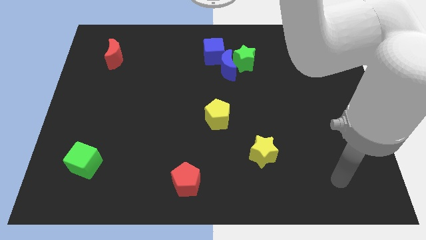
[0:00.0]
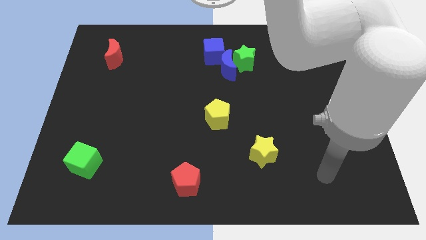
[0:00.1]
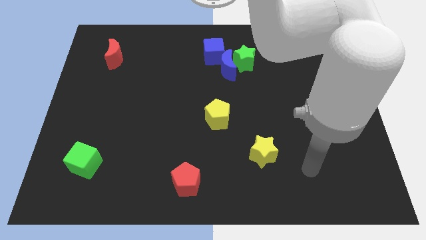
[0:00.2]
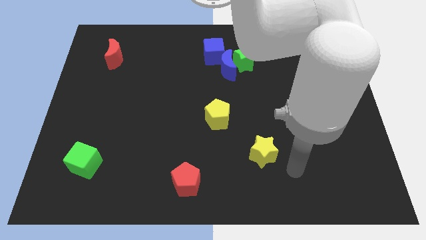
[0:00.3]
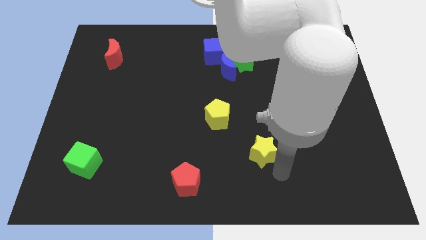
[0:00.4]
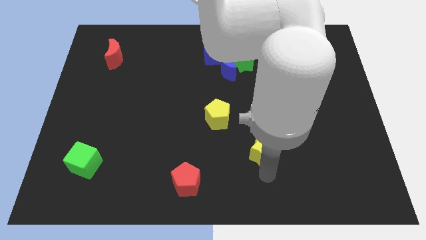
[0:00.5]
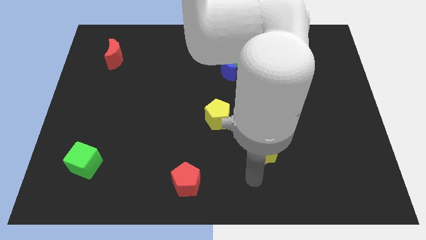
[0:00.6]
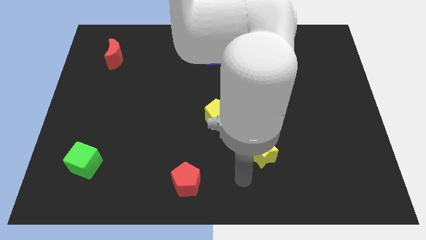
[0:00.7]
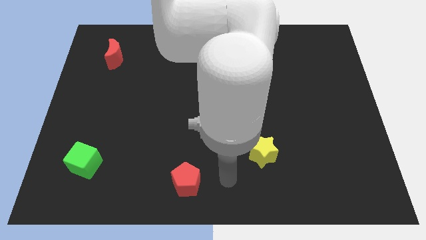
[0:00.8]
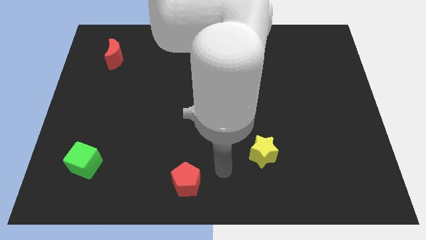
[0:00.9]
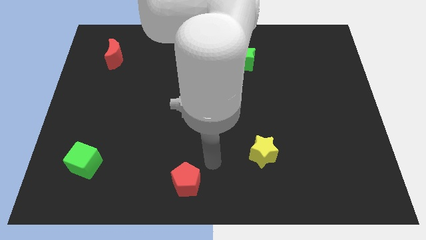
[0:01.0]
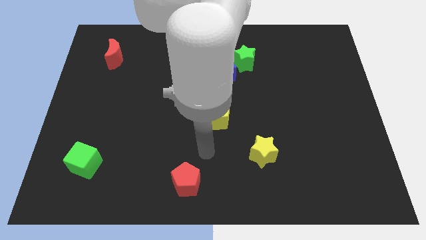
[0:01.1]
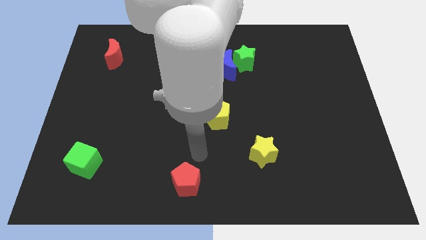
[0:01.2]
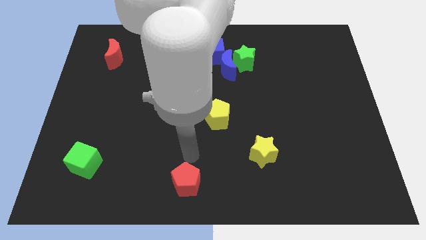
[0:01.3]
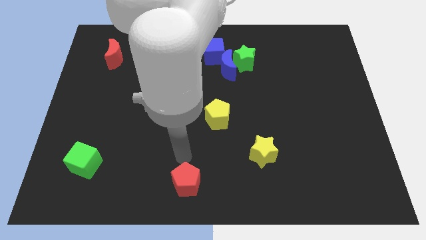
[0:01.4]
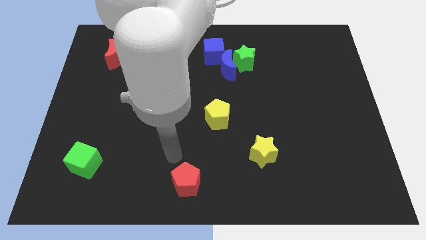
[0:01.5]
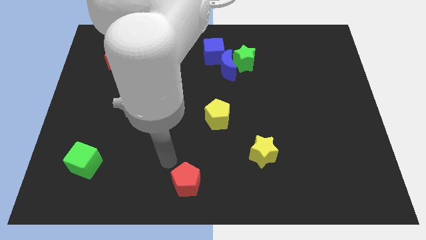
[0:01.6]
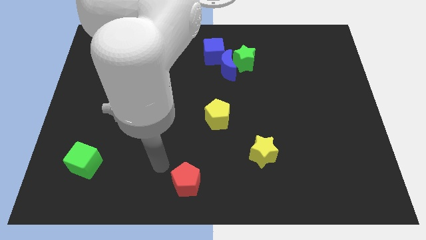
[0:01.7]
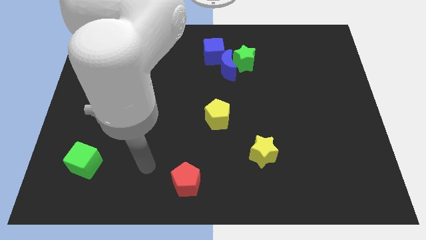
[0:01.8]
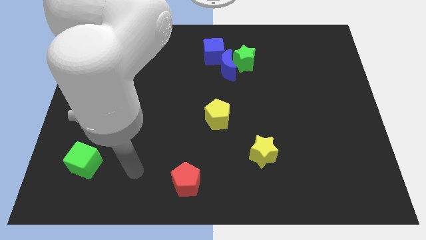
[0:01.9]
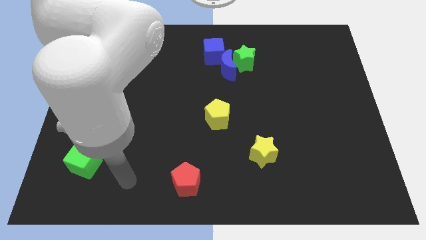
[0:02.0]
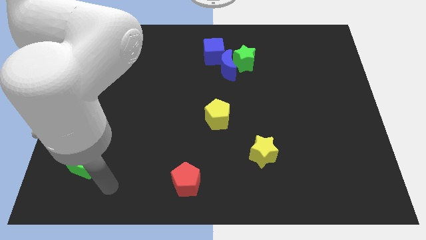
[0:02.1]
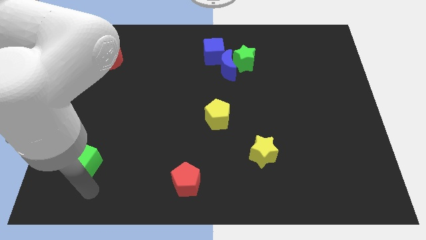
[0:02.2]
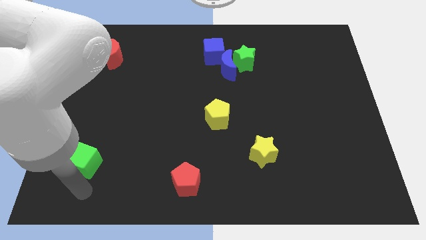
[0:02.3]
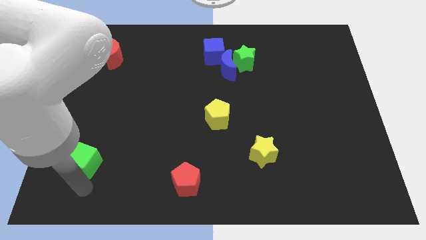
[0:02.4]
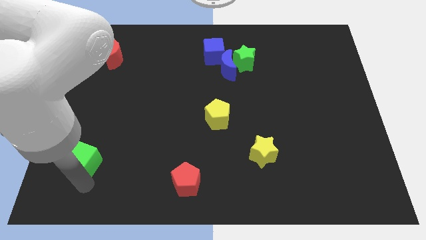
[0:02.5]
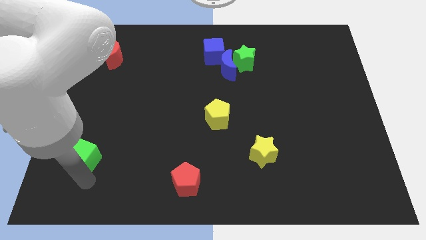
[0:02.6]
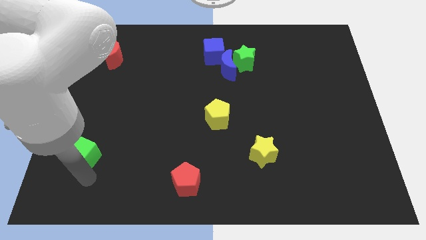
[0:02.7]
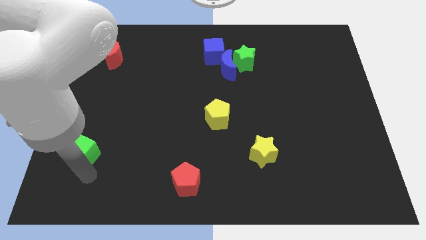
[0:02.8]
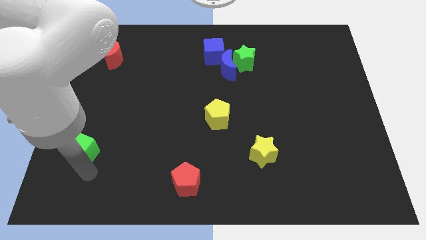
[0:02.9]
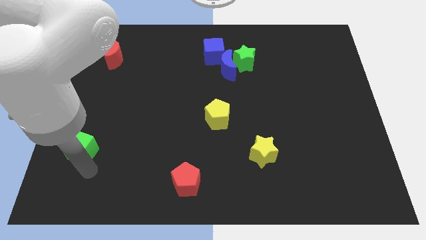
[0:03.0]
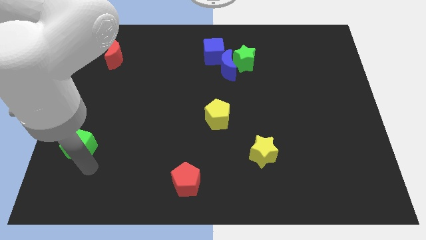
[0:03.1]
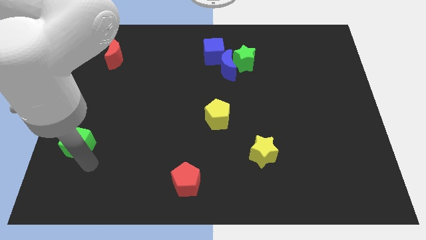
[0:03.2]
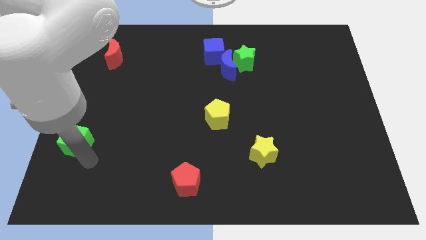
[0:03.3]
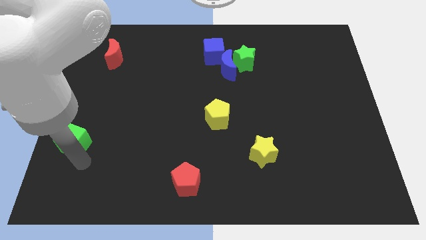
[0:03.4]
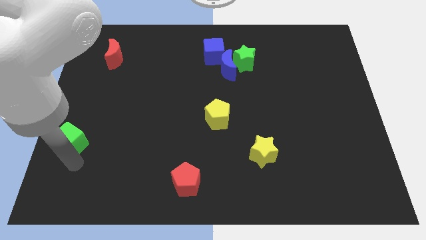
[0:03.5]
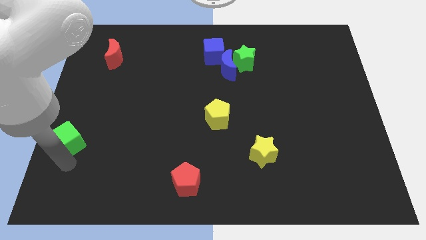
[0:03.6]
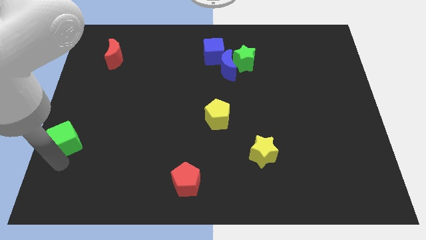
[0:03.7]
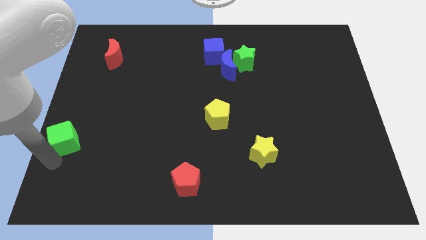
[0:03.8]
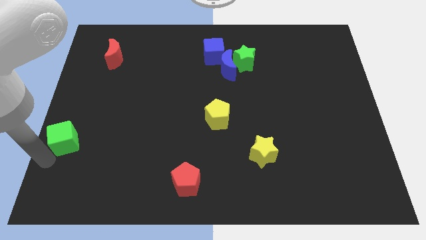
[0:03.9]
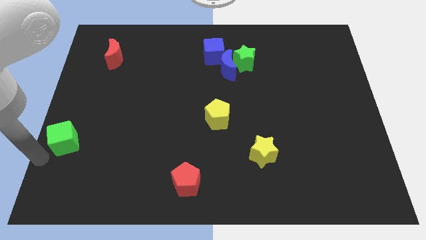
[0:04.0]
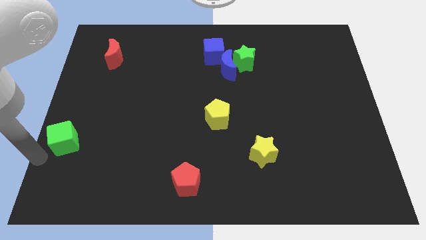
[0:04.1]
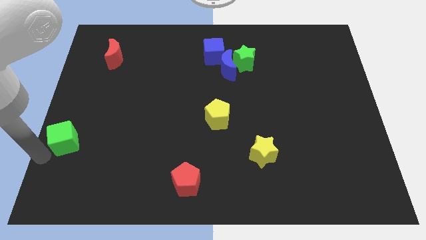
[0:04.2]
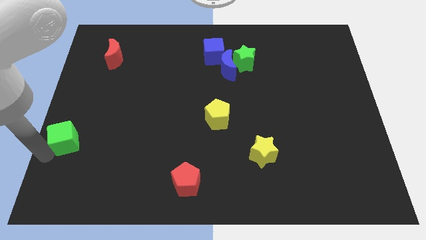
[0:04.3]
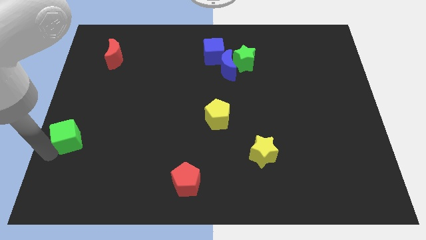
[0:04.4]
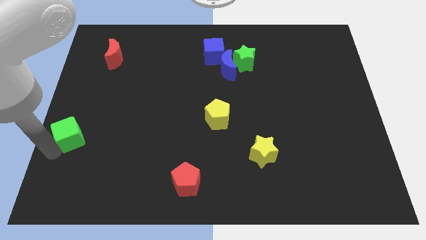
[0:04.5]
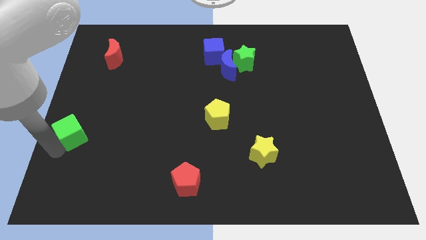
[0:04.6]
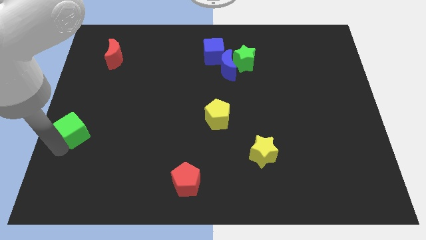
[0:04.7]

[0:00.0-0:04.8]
push the green cube a bit upwards

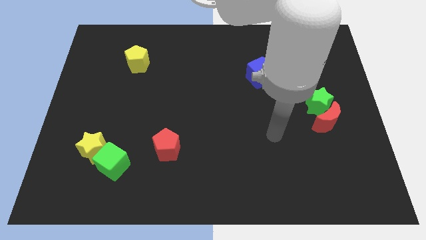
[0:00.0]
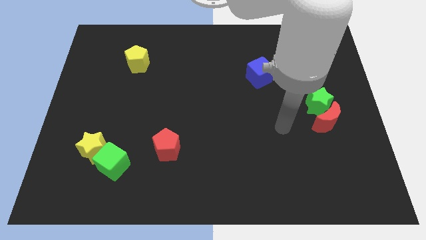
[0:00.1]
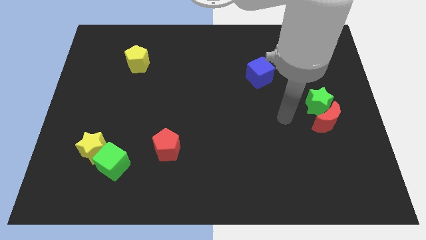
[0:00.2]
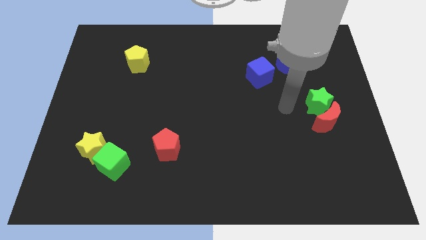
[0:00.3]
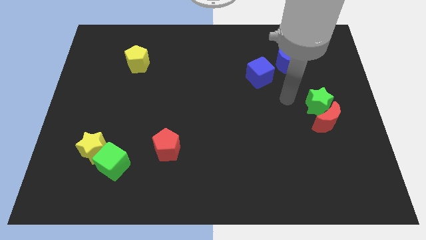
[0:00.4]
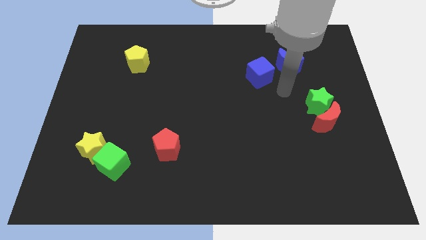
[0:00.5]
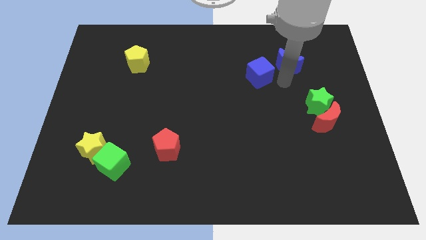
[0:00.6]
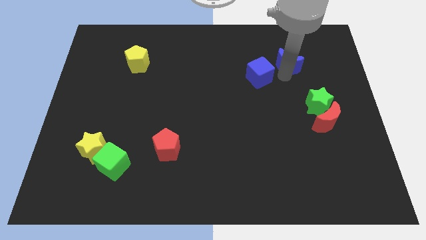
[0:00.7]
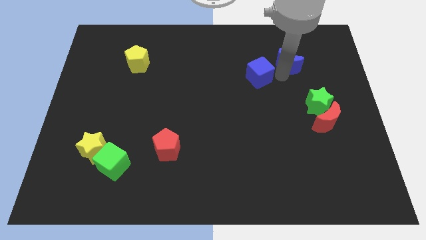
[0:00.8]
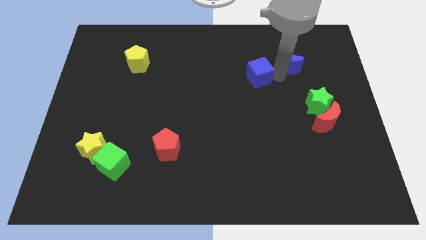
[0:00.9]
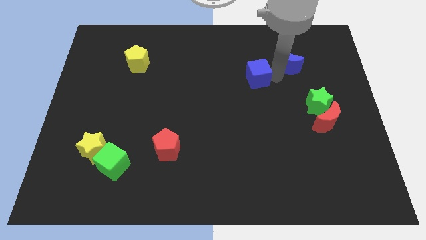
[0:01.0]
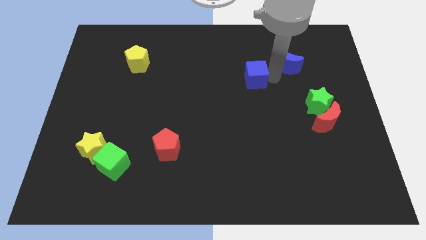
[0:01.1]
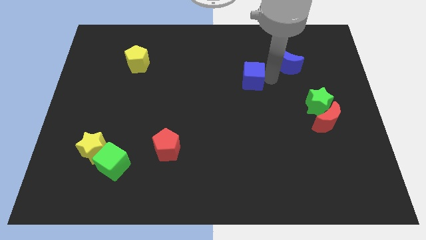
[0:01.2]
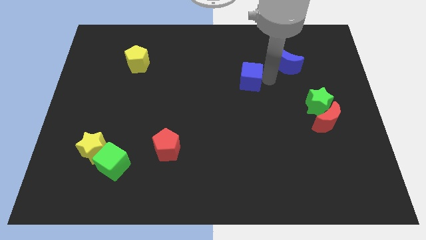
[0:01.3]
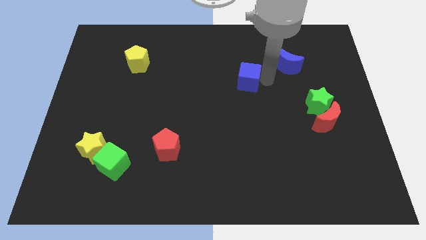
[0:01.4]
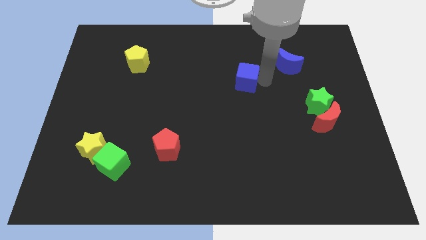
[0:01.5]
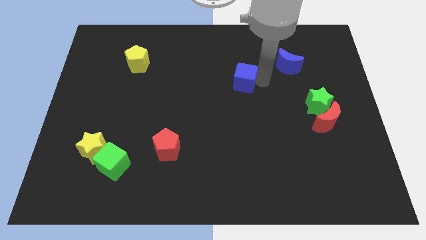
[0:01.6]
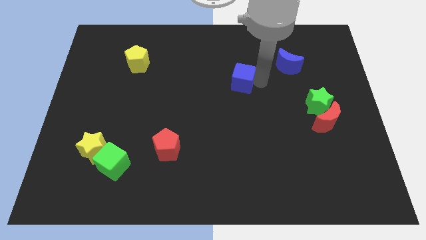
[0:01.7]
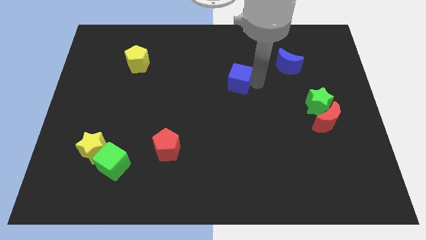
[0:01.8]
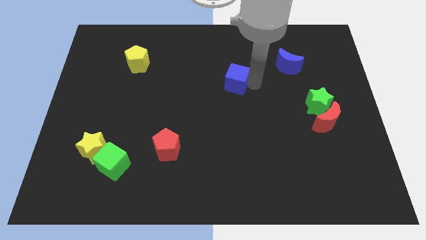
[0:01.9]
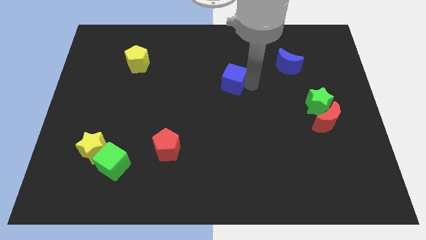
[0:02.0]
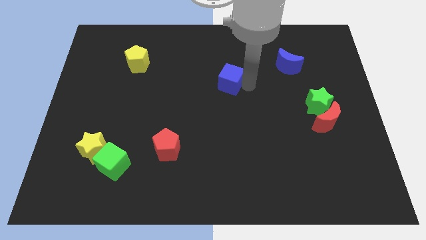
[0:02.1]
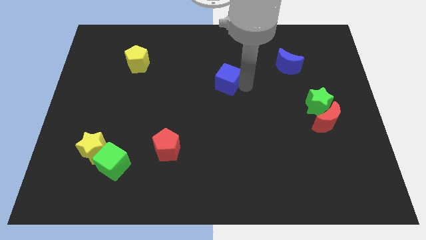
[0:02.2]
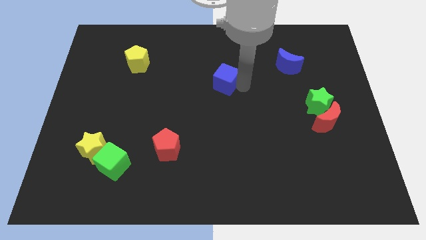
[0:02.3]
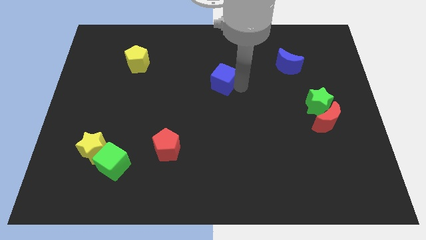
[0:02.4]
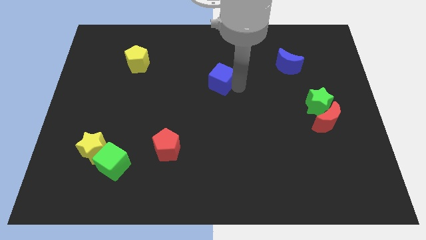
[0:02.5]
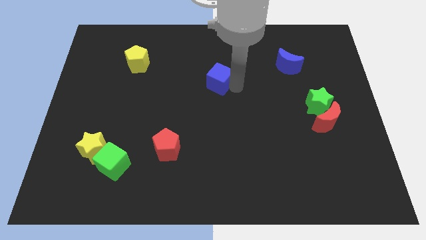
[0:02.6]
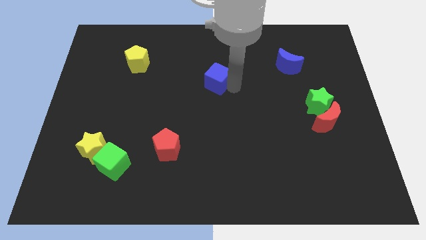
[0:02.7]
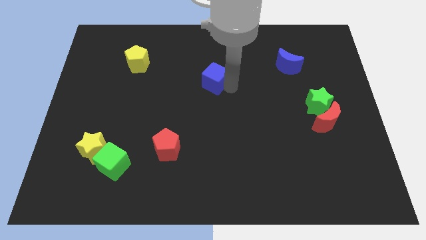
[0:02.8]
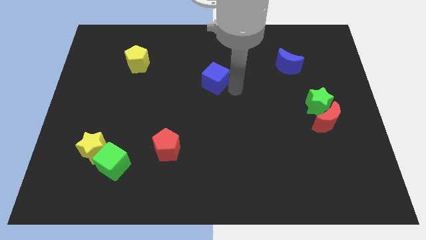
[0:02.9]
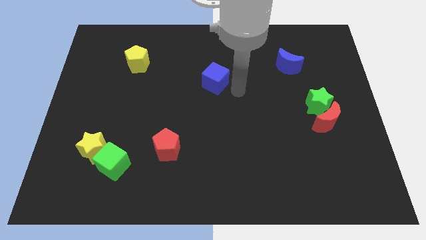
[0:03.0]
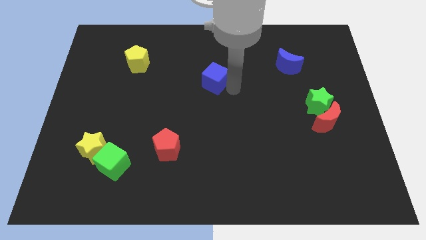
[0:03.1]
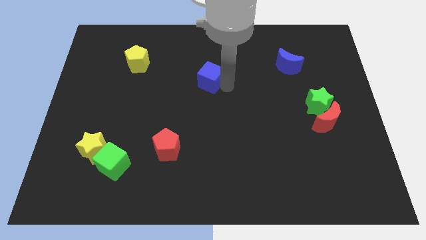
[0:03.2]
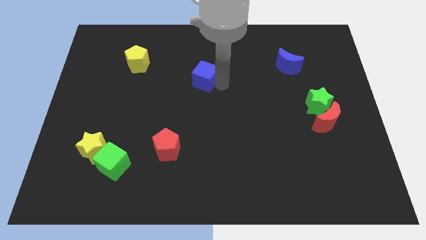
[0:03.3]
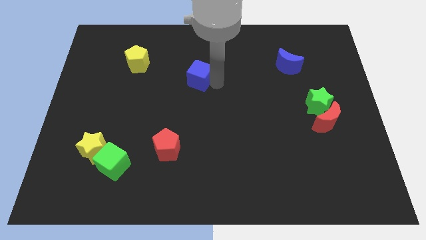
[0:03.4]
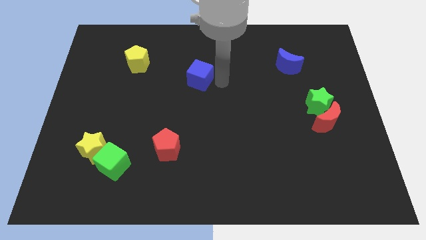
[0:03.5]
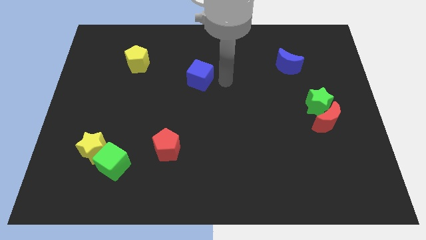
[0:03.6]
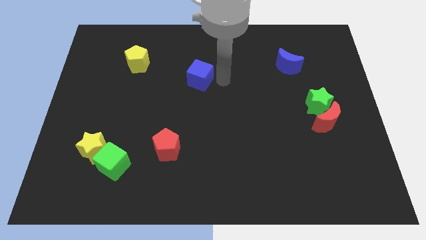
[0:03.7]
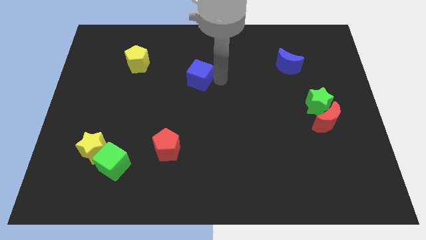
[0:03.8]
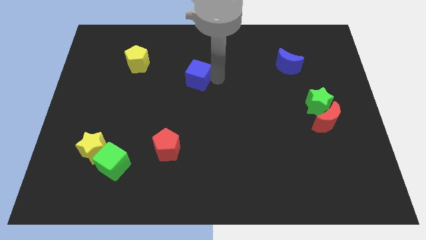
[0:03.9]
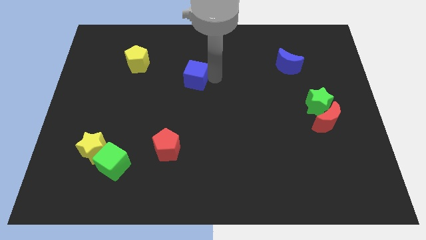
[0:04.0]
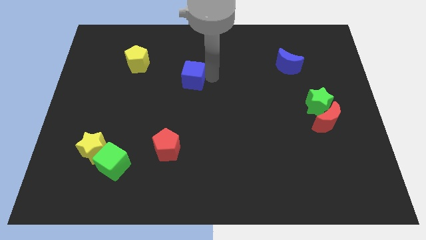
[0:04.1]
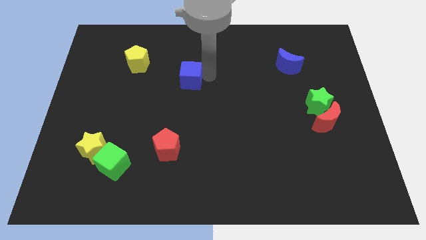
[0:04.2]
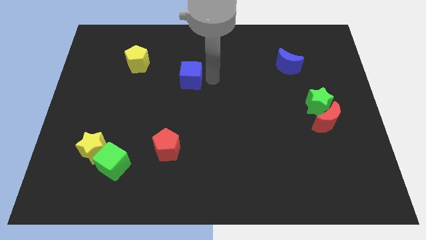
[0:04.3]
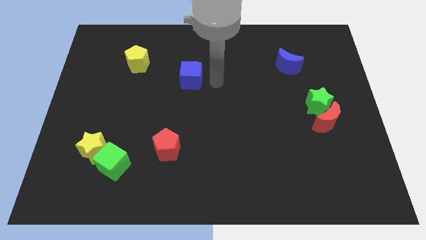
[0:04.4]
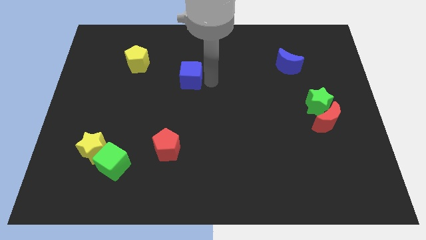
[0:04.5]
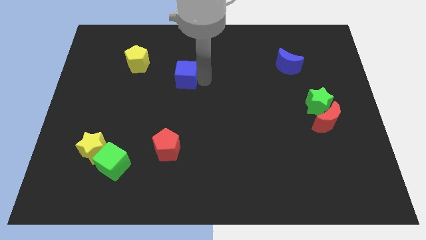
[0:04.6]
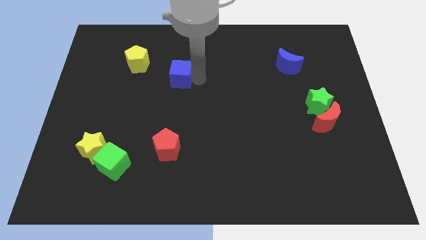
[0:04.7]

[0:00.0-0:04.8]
move the blue cube to the left
